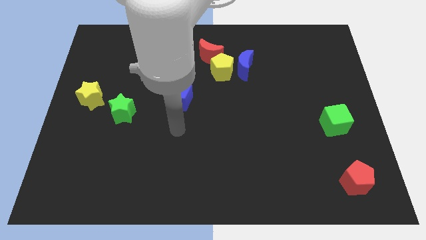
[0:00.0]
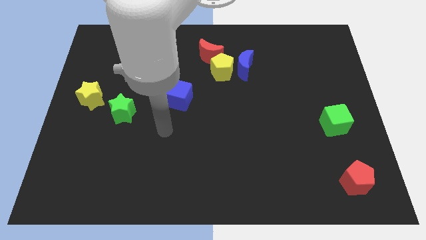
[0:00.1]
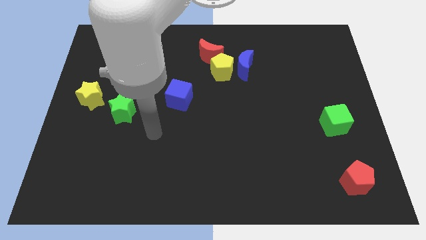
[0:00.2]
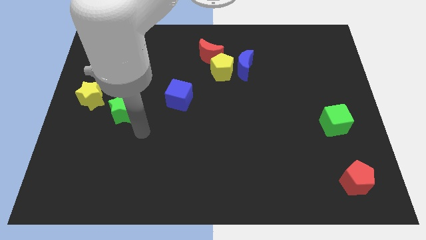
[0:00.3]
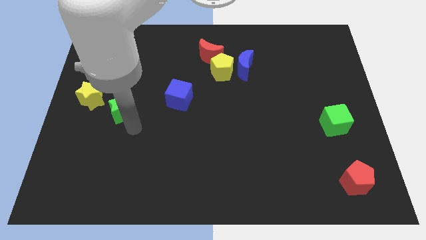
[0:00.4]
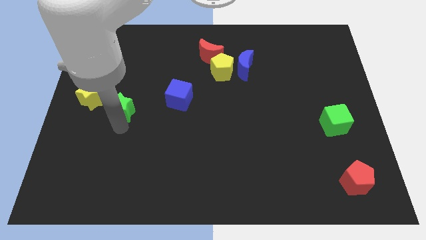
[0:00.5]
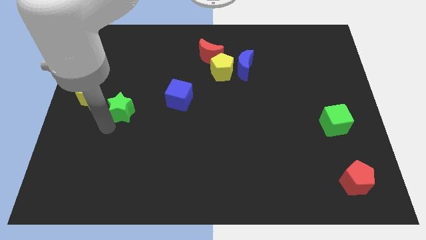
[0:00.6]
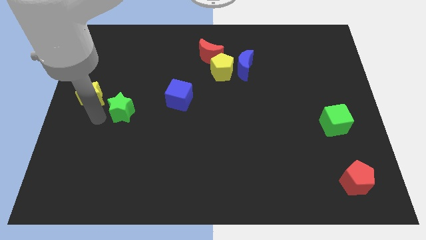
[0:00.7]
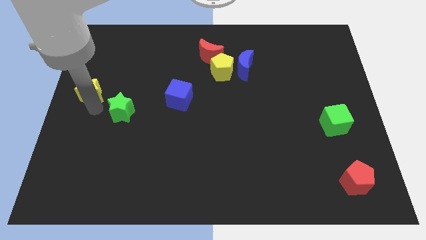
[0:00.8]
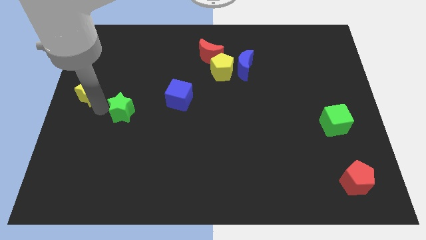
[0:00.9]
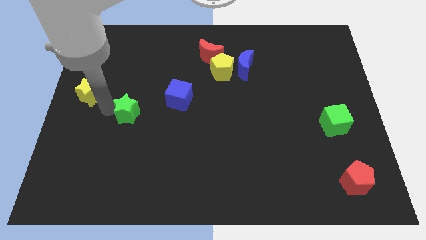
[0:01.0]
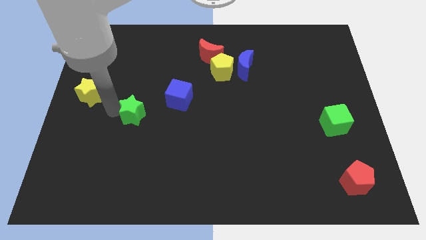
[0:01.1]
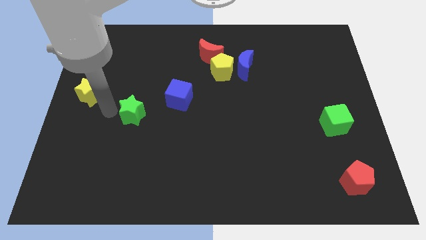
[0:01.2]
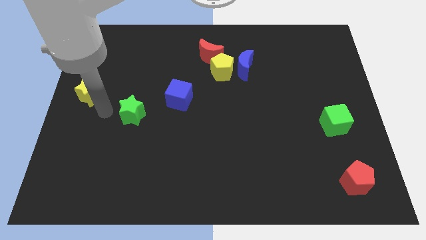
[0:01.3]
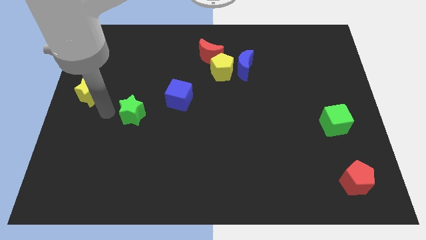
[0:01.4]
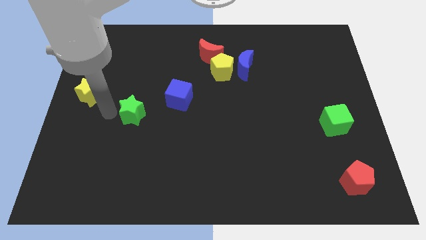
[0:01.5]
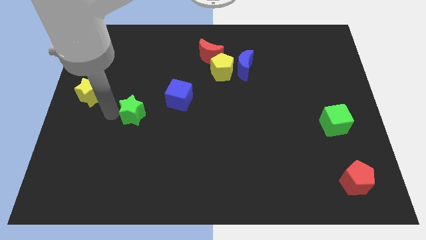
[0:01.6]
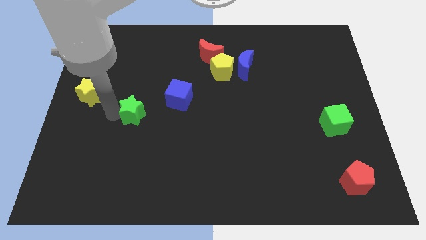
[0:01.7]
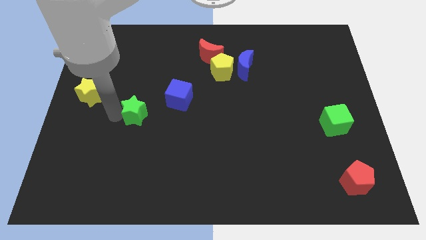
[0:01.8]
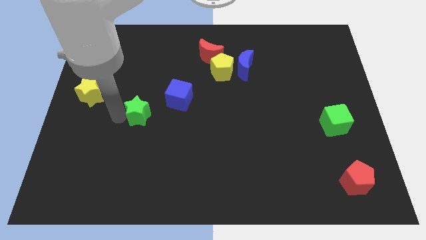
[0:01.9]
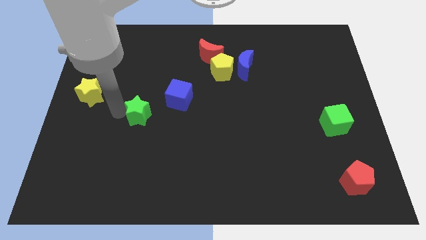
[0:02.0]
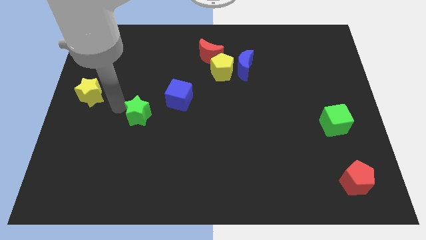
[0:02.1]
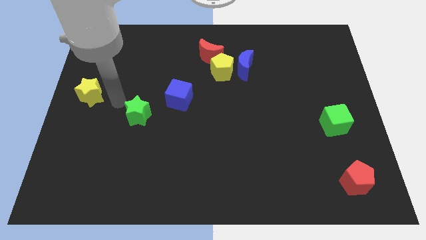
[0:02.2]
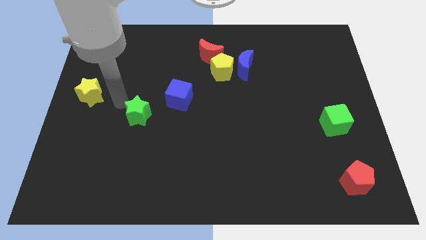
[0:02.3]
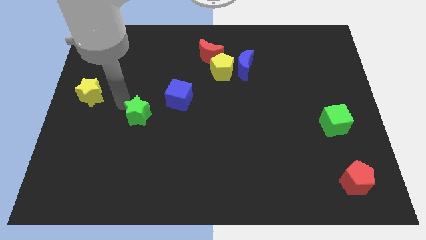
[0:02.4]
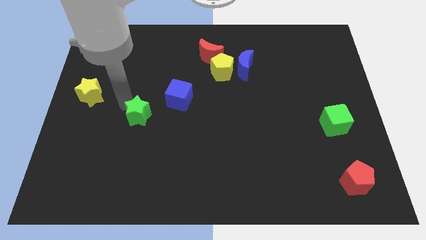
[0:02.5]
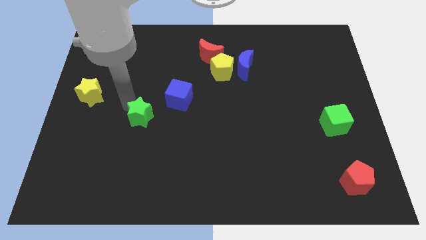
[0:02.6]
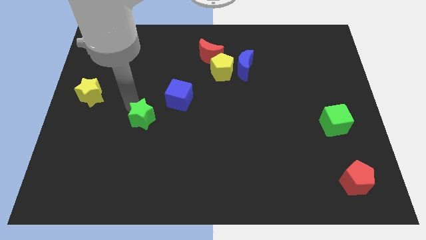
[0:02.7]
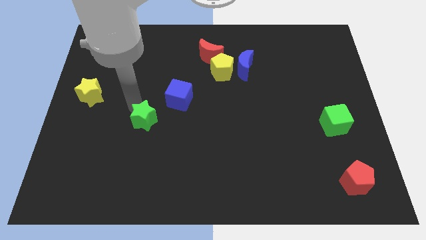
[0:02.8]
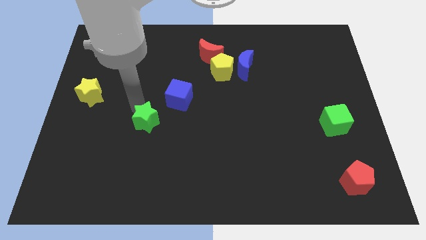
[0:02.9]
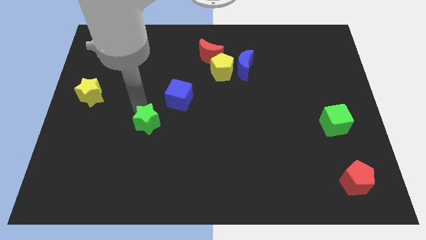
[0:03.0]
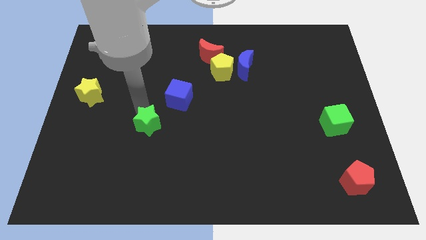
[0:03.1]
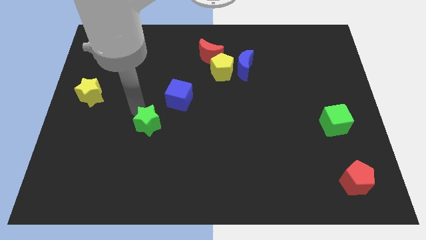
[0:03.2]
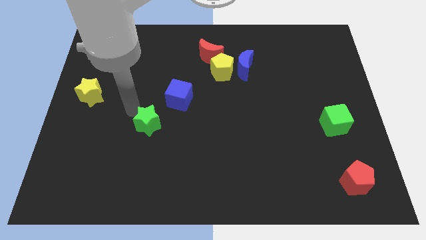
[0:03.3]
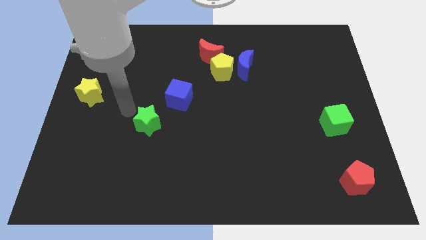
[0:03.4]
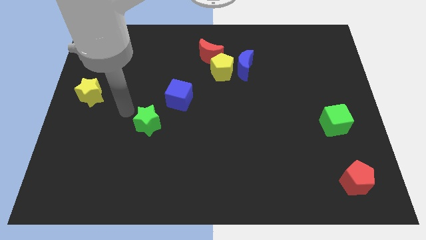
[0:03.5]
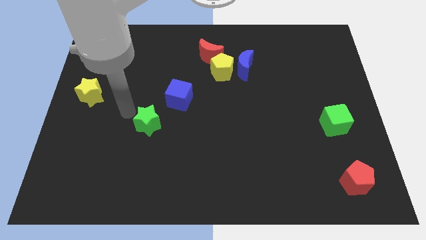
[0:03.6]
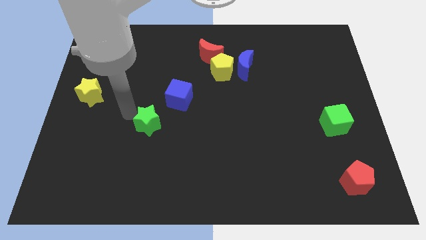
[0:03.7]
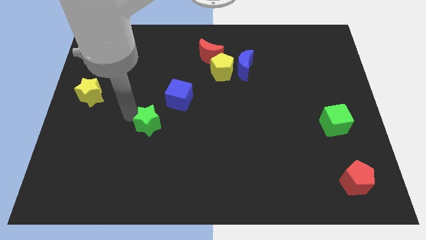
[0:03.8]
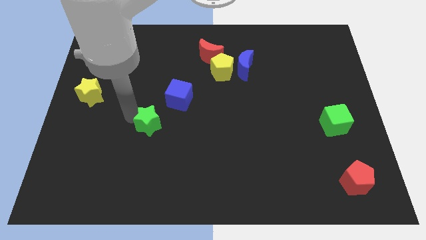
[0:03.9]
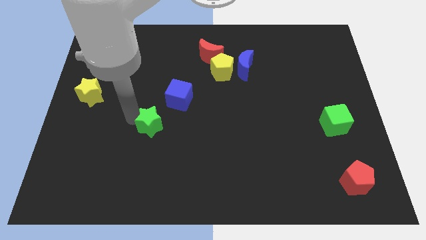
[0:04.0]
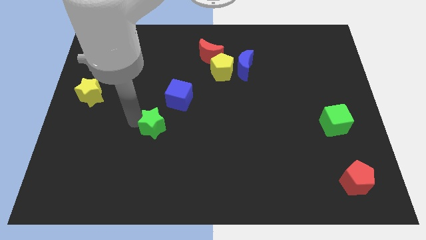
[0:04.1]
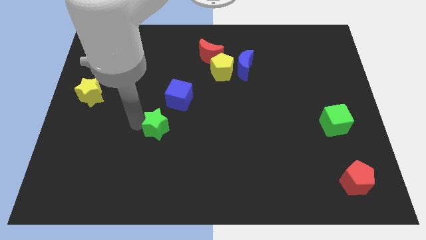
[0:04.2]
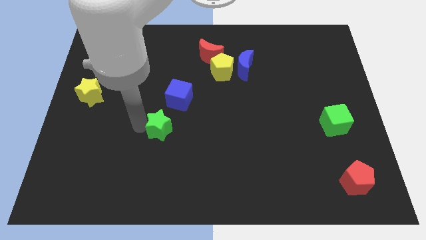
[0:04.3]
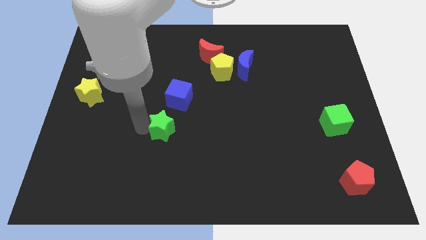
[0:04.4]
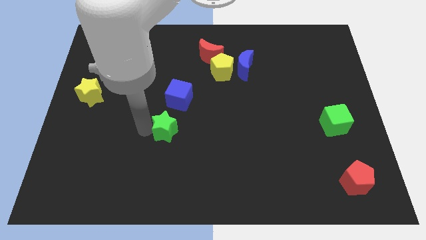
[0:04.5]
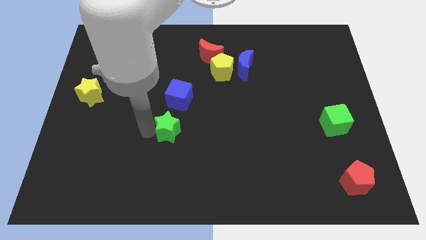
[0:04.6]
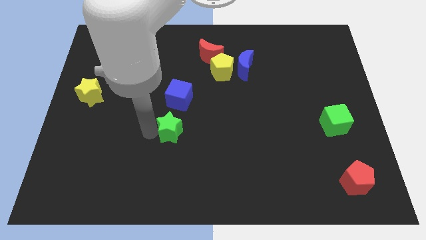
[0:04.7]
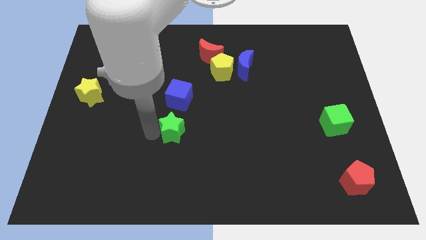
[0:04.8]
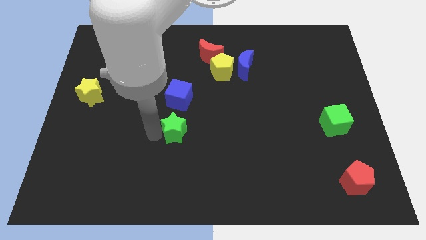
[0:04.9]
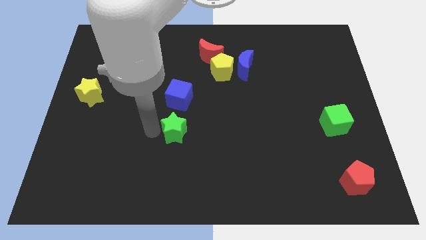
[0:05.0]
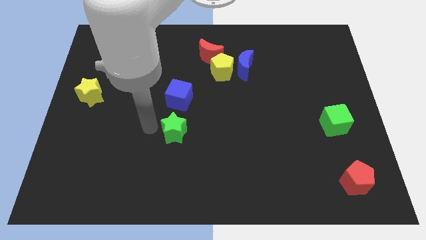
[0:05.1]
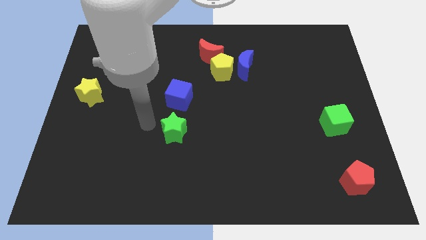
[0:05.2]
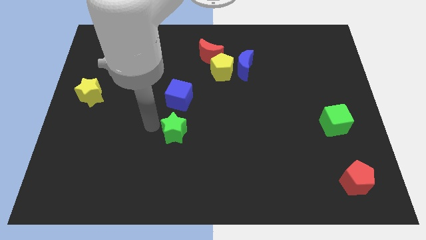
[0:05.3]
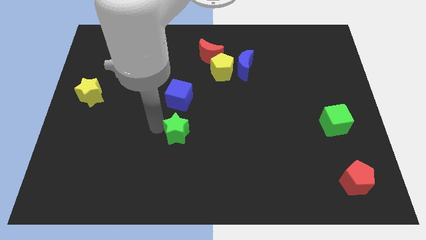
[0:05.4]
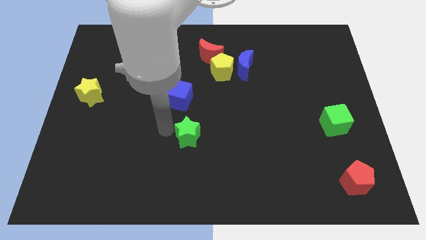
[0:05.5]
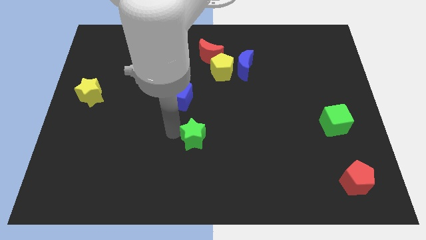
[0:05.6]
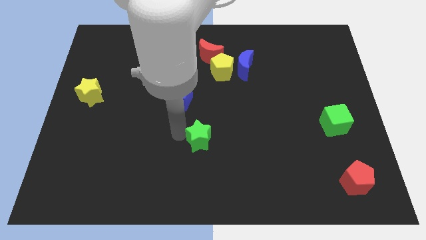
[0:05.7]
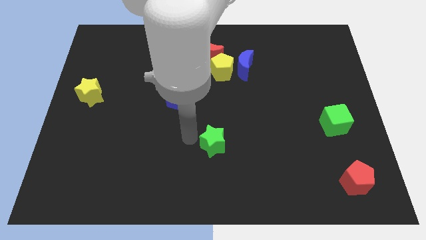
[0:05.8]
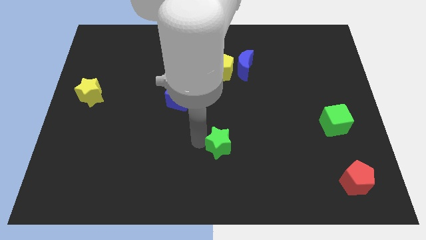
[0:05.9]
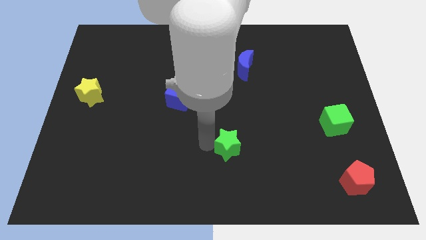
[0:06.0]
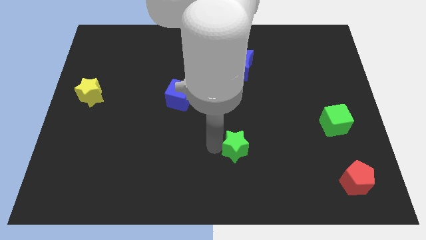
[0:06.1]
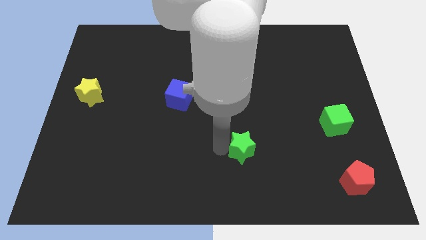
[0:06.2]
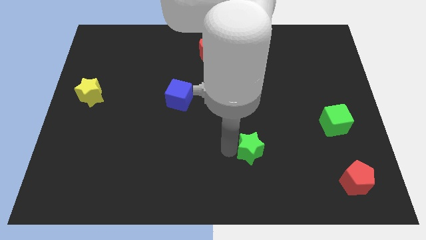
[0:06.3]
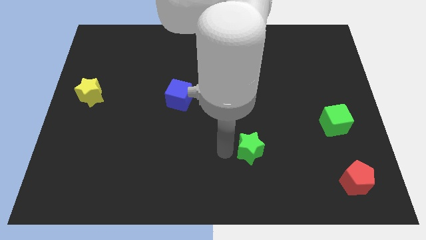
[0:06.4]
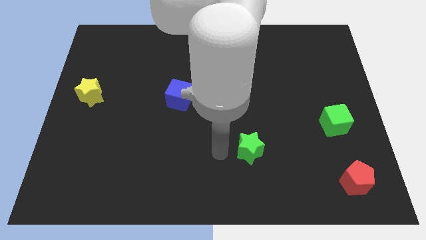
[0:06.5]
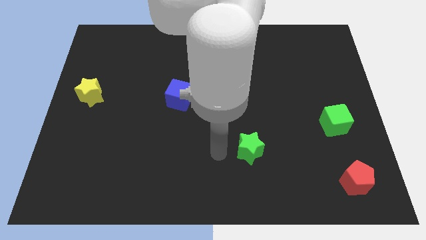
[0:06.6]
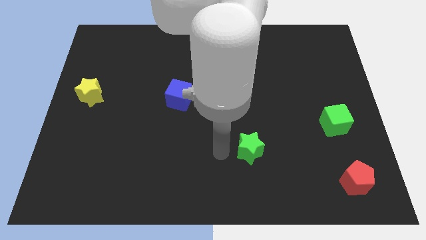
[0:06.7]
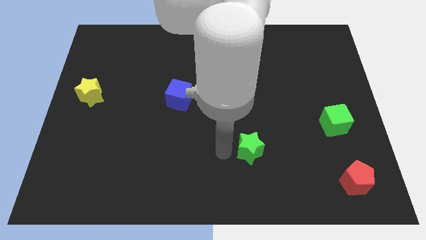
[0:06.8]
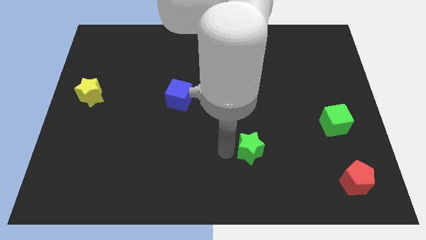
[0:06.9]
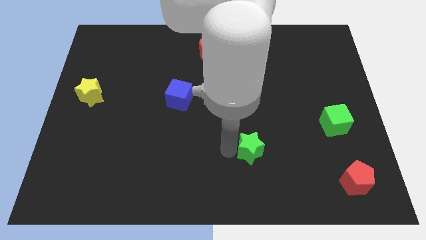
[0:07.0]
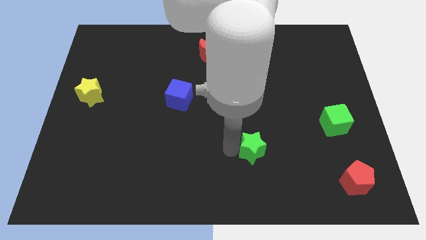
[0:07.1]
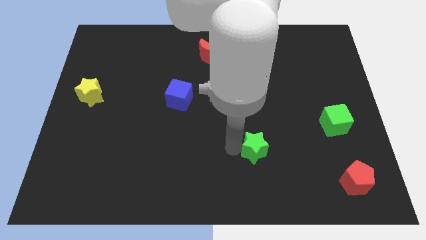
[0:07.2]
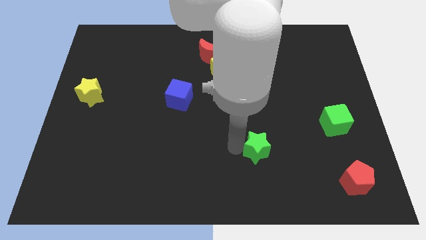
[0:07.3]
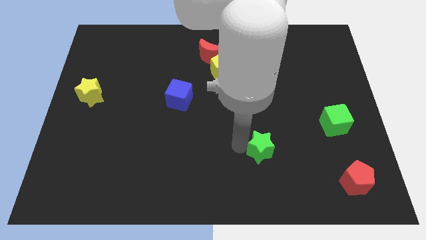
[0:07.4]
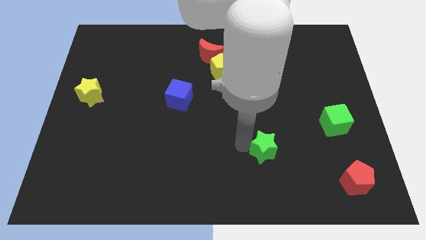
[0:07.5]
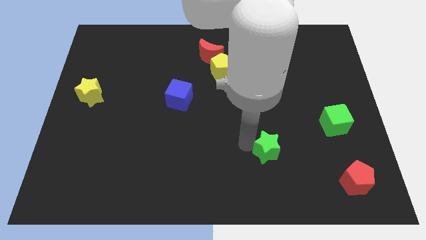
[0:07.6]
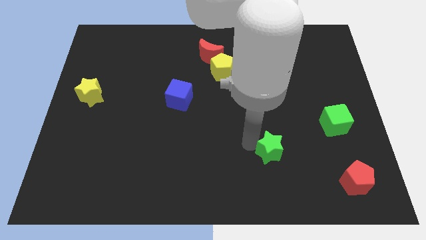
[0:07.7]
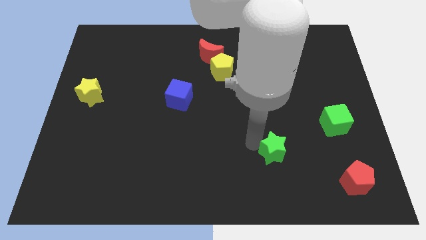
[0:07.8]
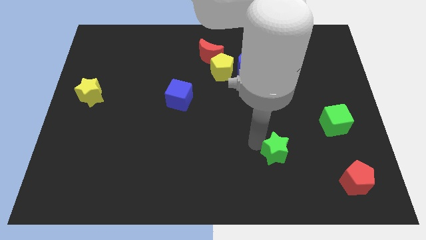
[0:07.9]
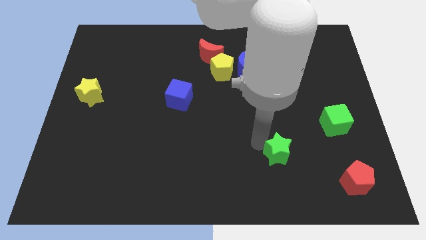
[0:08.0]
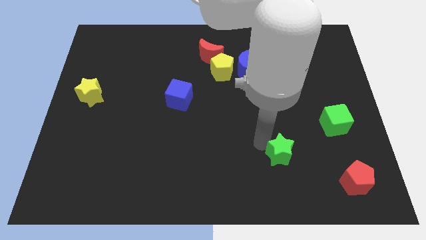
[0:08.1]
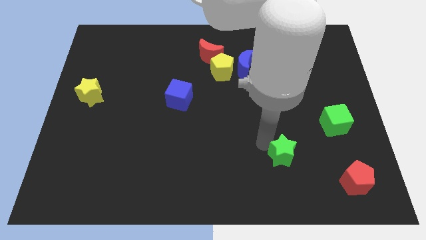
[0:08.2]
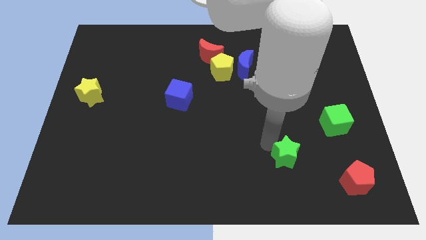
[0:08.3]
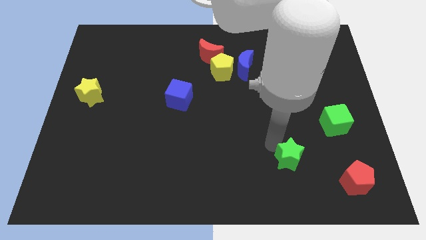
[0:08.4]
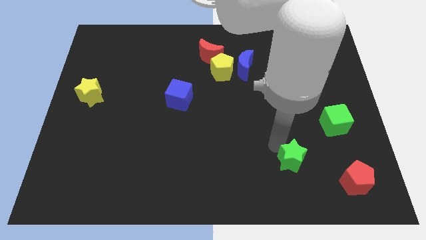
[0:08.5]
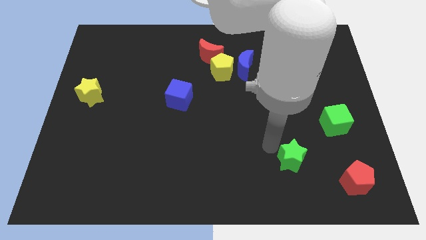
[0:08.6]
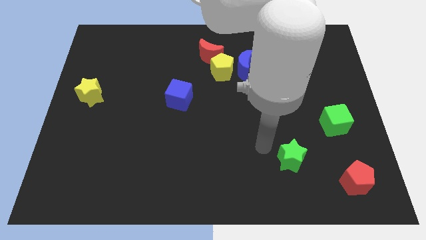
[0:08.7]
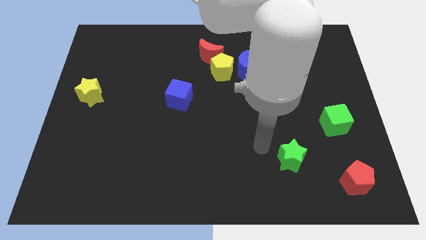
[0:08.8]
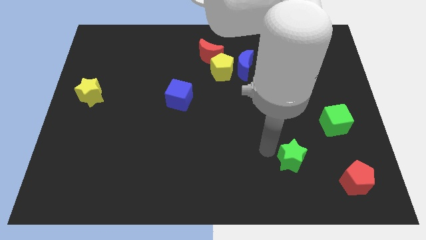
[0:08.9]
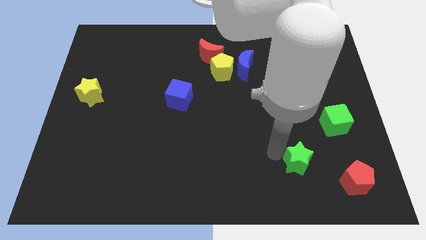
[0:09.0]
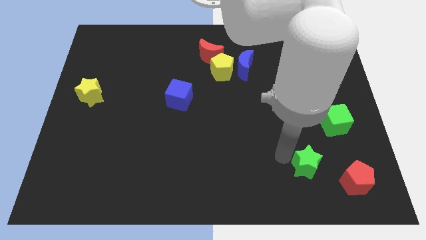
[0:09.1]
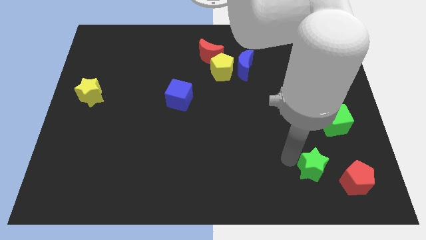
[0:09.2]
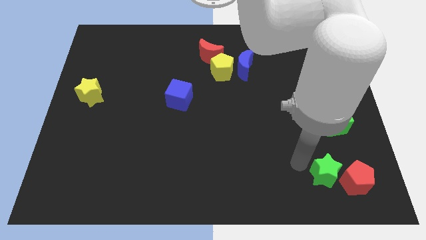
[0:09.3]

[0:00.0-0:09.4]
slide the green star towards the red pentagon
